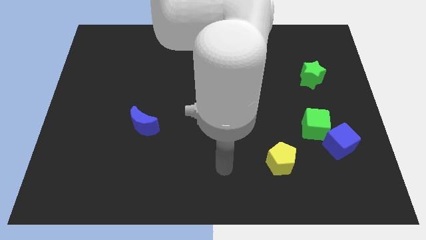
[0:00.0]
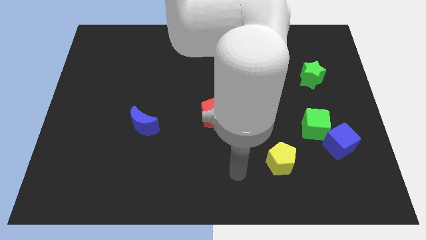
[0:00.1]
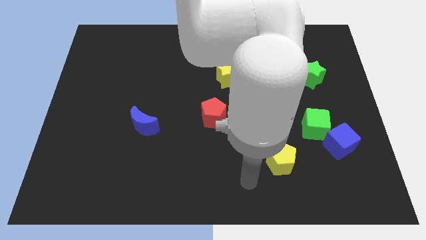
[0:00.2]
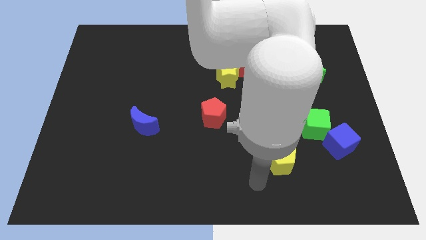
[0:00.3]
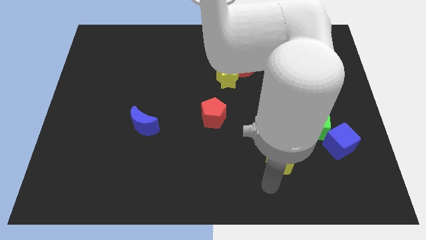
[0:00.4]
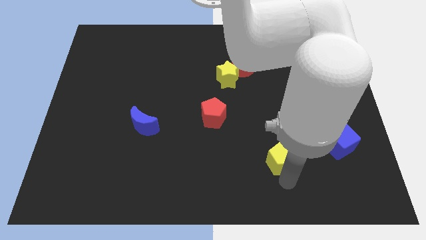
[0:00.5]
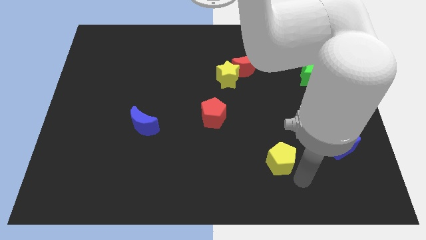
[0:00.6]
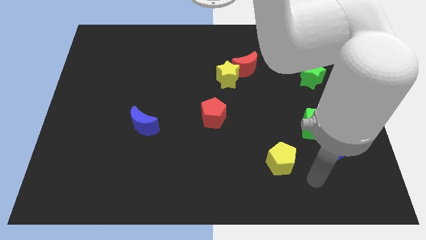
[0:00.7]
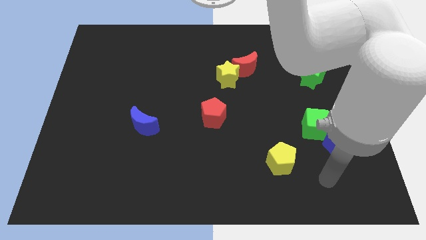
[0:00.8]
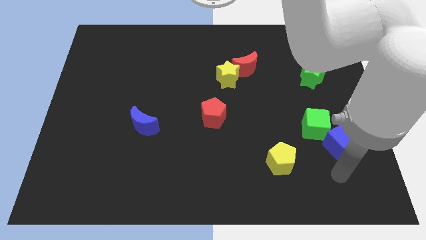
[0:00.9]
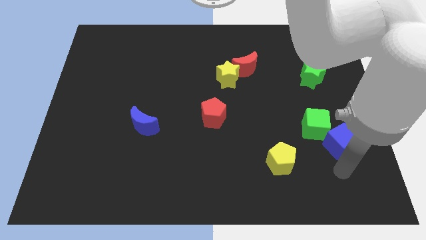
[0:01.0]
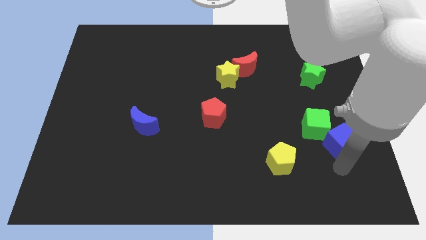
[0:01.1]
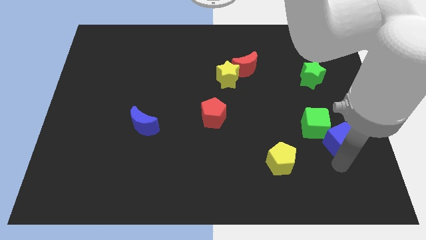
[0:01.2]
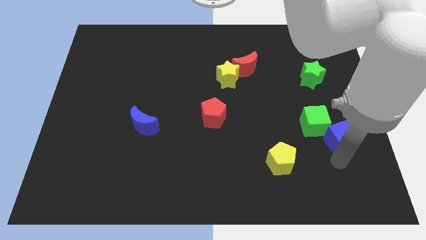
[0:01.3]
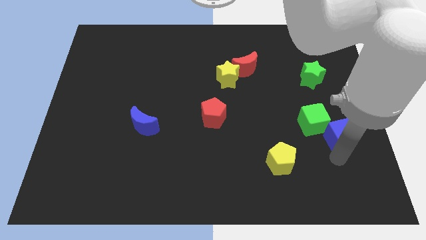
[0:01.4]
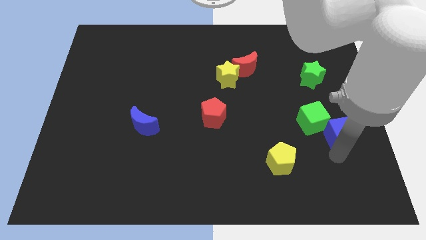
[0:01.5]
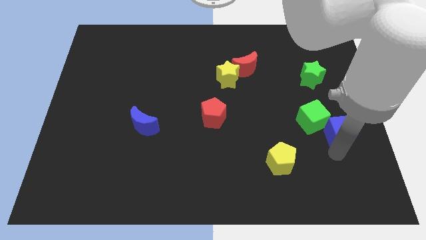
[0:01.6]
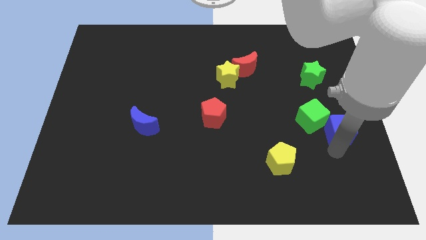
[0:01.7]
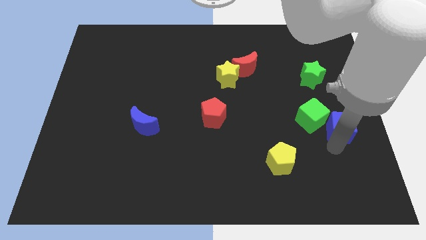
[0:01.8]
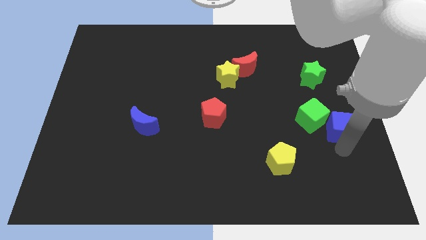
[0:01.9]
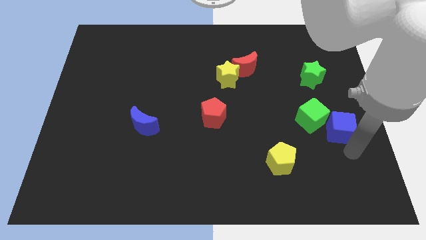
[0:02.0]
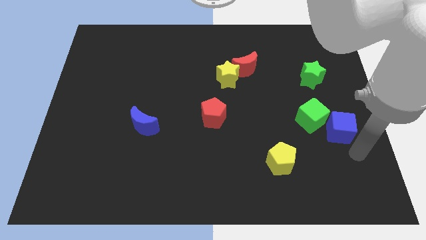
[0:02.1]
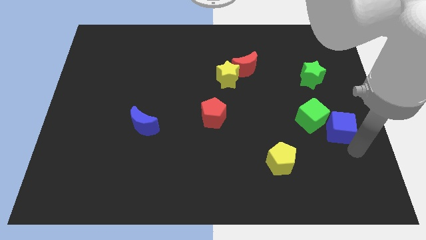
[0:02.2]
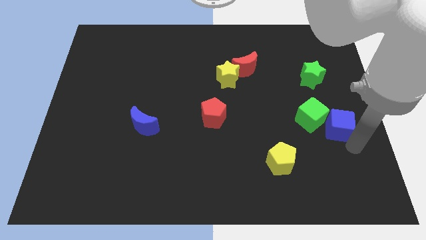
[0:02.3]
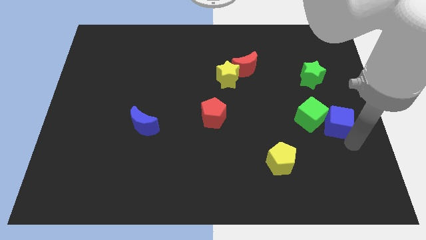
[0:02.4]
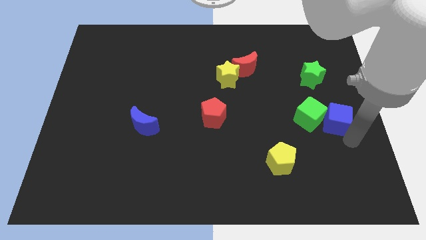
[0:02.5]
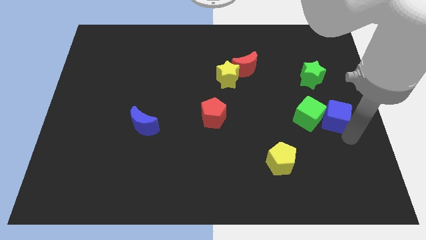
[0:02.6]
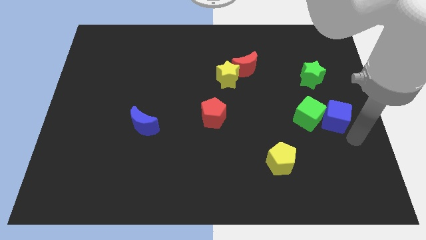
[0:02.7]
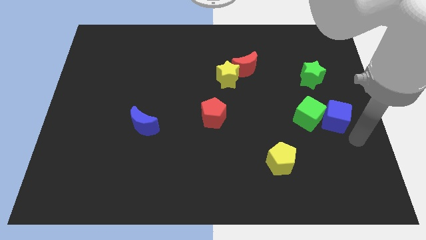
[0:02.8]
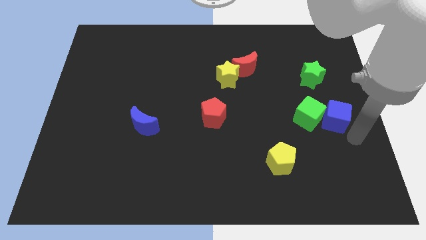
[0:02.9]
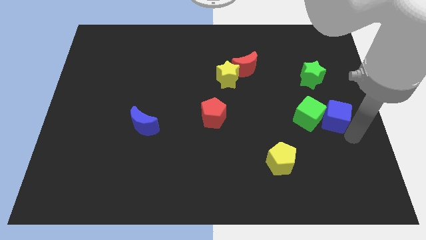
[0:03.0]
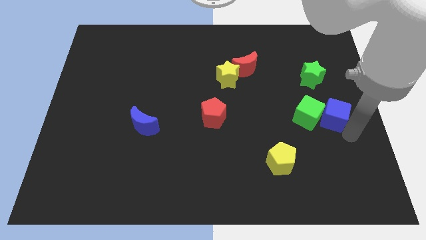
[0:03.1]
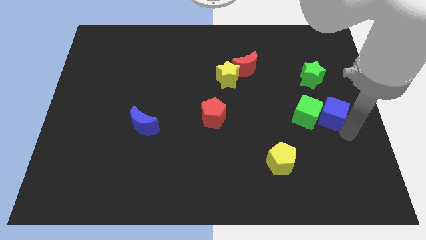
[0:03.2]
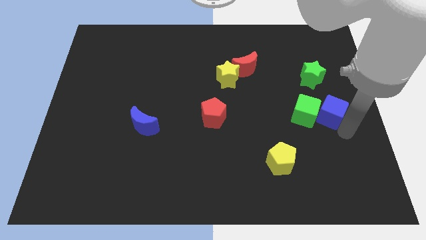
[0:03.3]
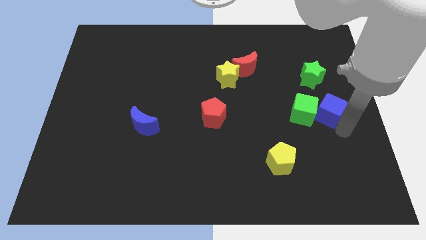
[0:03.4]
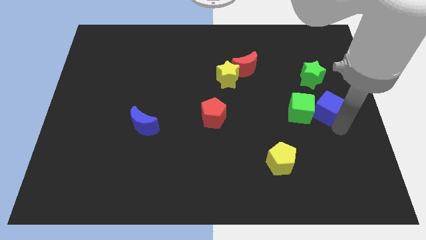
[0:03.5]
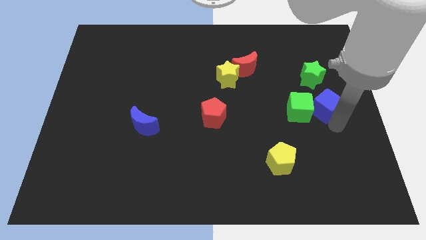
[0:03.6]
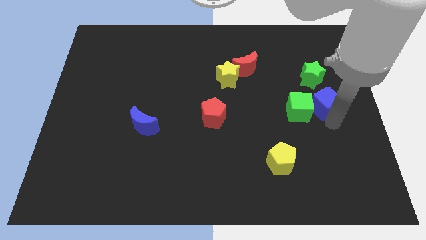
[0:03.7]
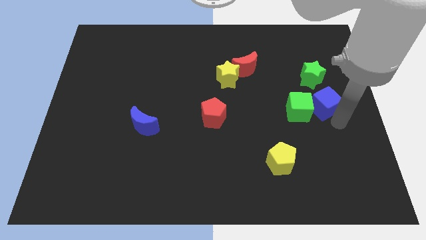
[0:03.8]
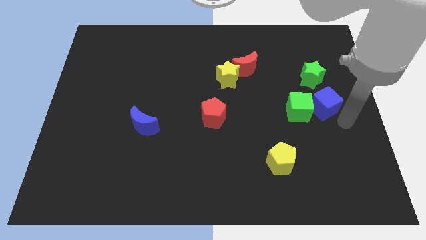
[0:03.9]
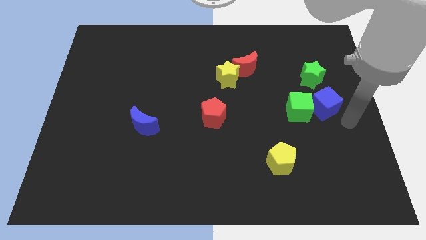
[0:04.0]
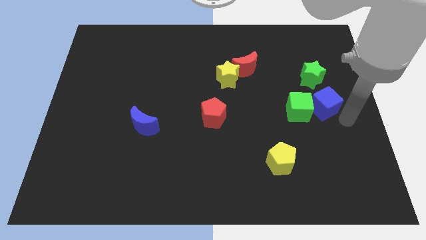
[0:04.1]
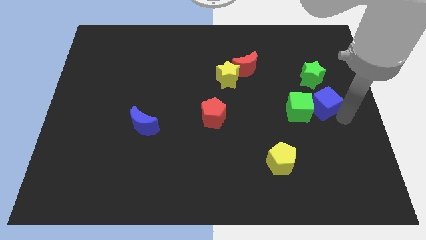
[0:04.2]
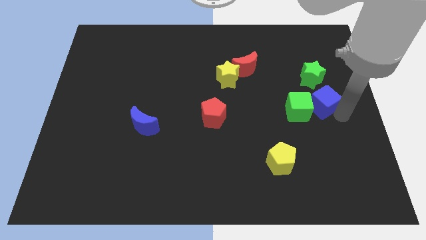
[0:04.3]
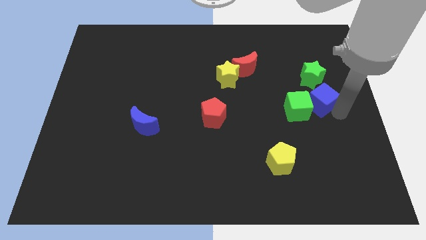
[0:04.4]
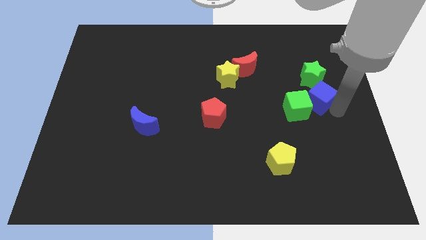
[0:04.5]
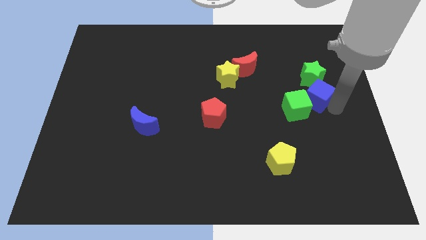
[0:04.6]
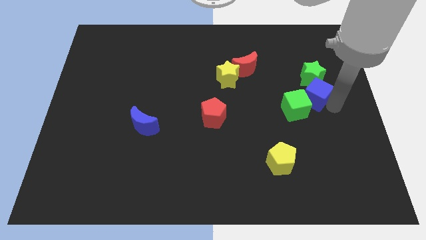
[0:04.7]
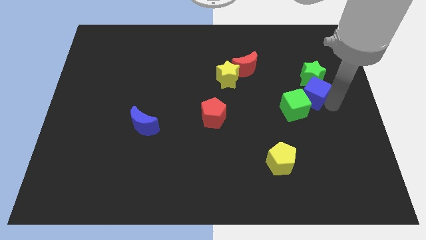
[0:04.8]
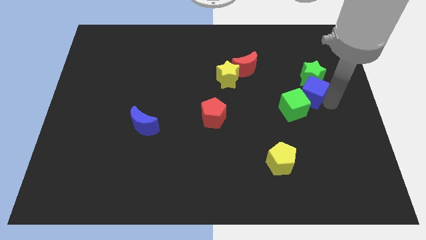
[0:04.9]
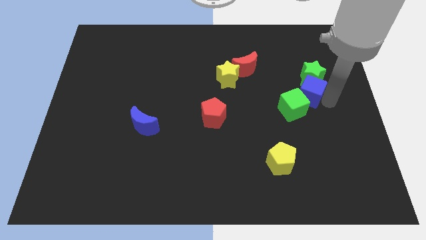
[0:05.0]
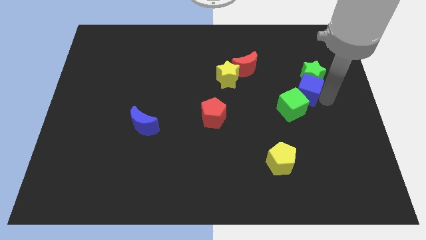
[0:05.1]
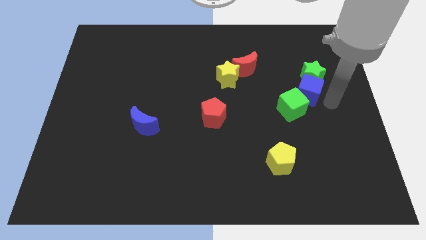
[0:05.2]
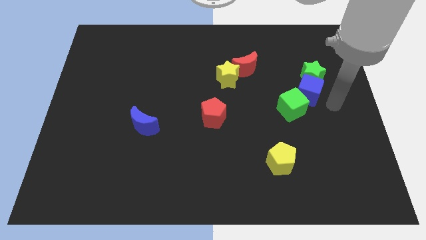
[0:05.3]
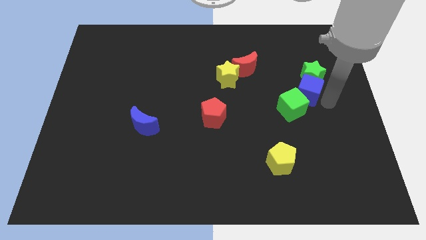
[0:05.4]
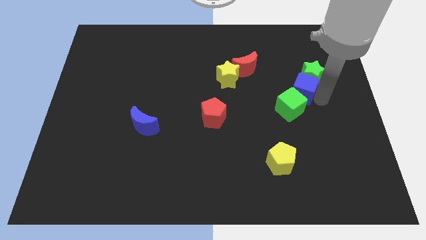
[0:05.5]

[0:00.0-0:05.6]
slide the blue cube left of the green star

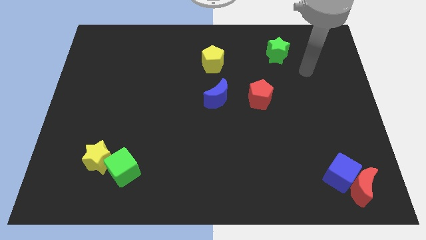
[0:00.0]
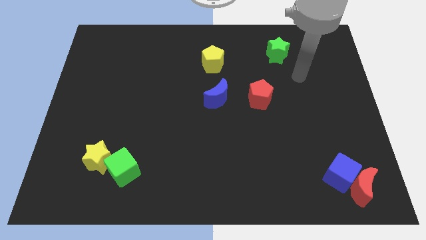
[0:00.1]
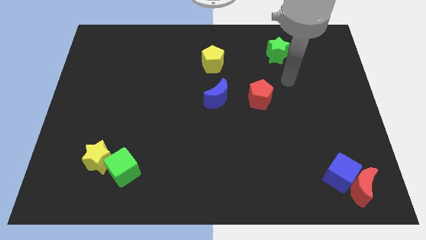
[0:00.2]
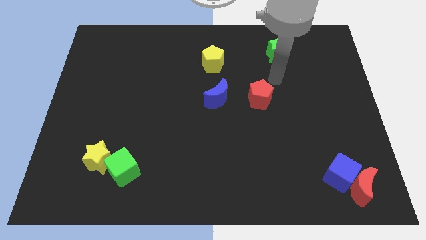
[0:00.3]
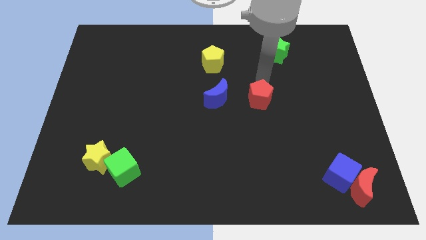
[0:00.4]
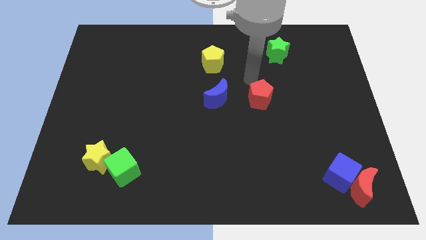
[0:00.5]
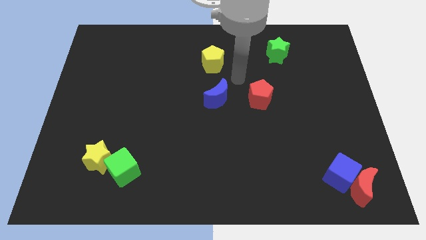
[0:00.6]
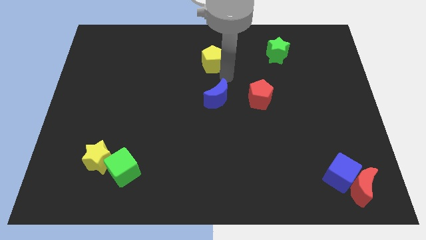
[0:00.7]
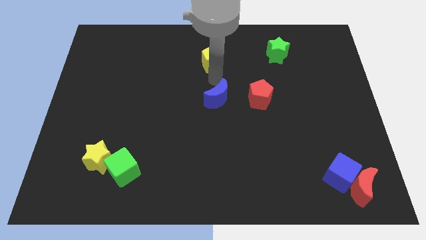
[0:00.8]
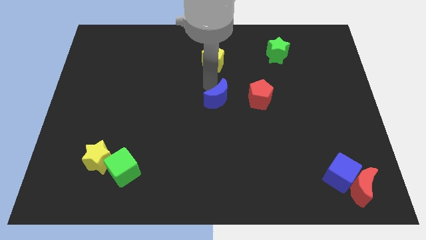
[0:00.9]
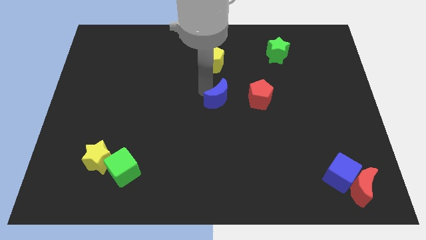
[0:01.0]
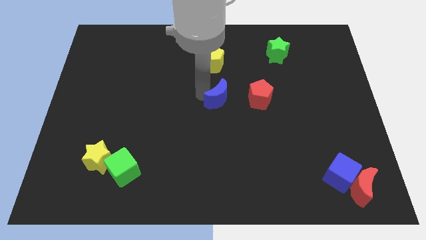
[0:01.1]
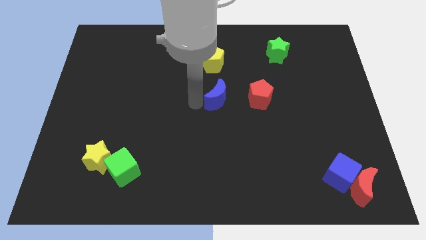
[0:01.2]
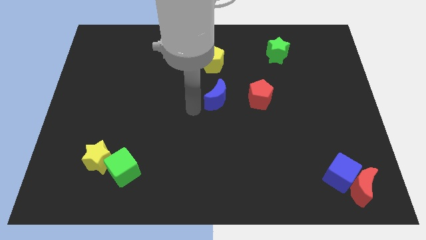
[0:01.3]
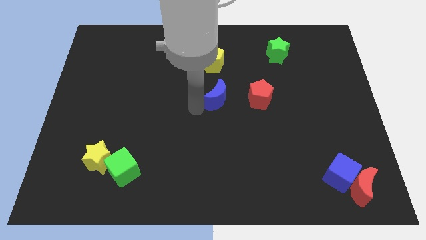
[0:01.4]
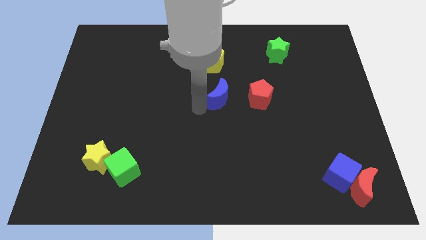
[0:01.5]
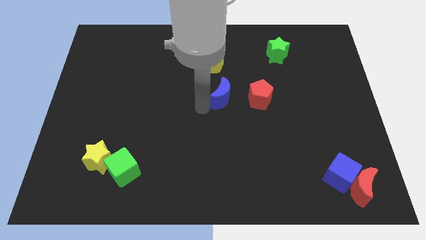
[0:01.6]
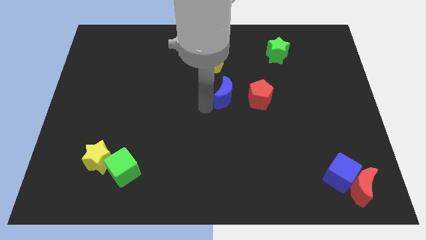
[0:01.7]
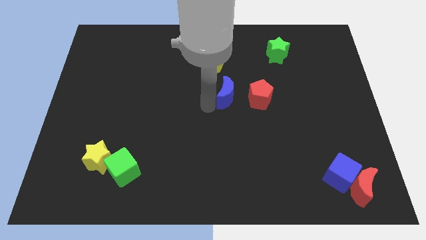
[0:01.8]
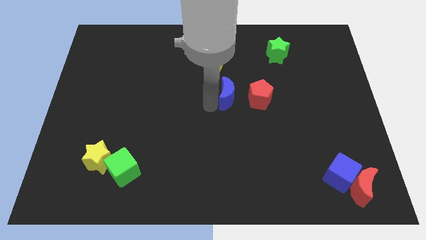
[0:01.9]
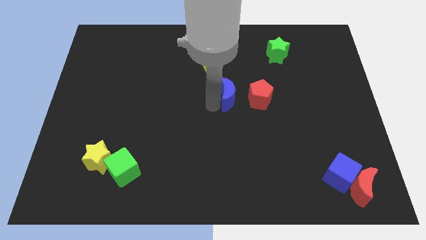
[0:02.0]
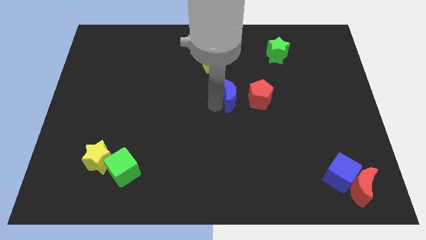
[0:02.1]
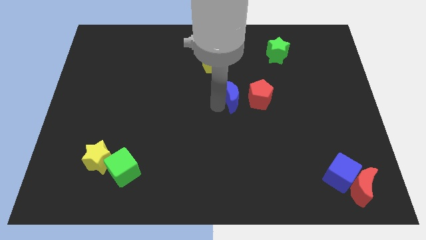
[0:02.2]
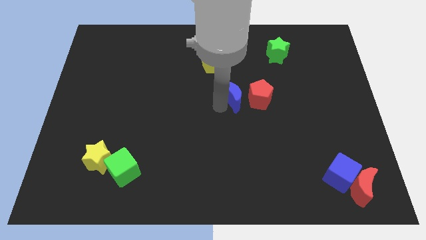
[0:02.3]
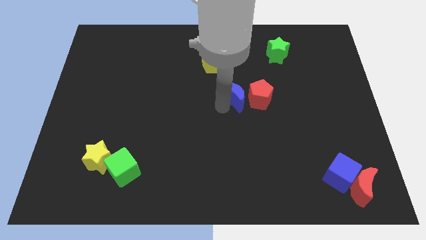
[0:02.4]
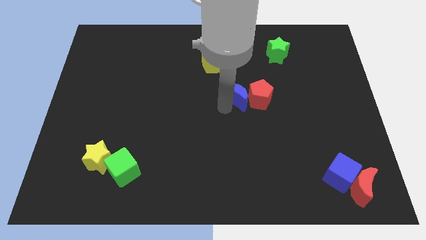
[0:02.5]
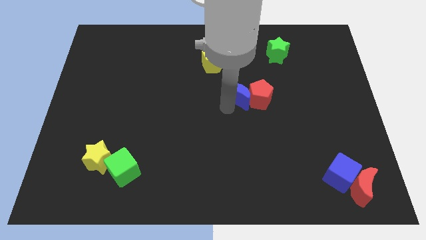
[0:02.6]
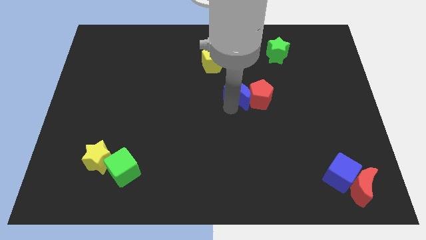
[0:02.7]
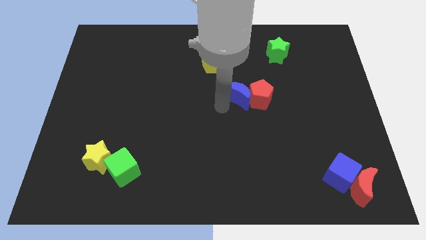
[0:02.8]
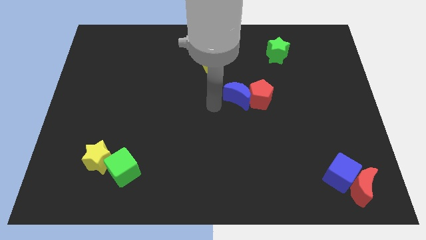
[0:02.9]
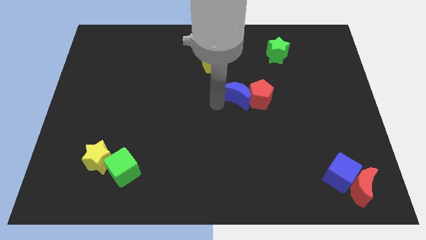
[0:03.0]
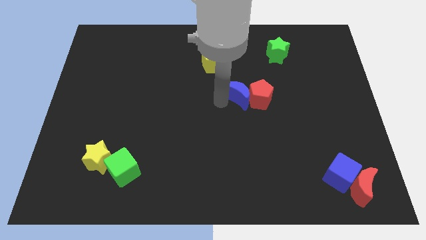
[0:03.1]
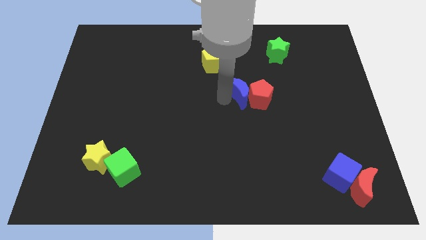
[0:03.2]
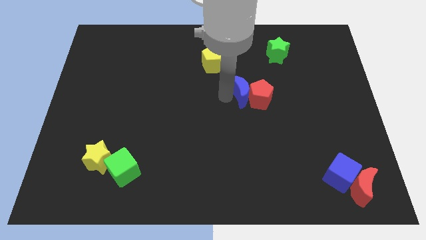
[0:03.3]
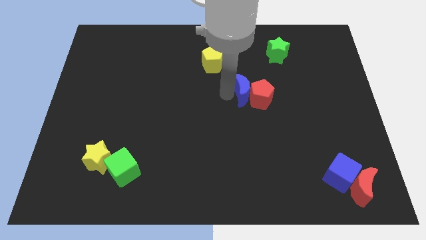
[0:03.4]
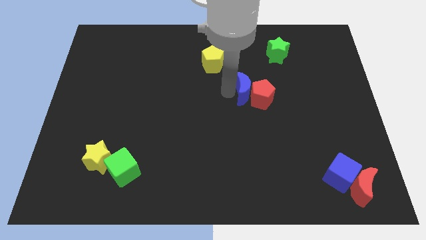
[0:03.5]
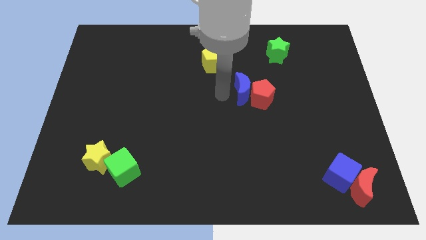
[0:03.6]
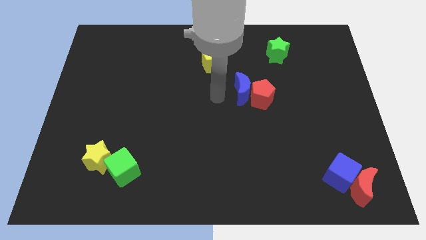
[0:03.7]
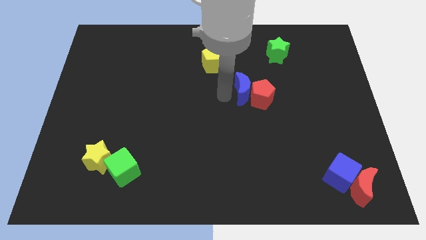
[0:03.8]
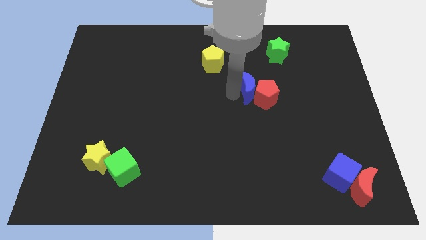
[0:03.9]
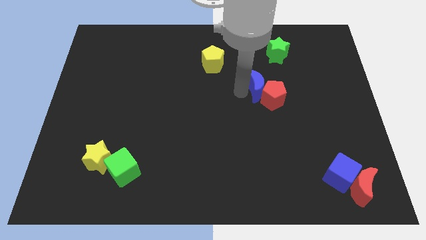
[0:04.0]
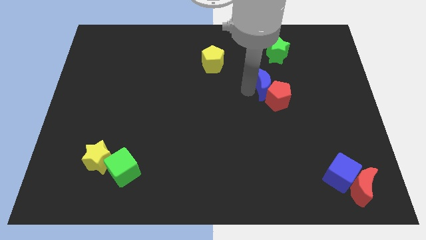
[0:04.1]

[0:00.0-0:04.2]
put the blue moon to the bottom of the green star
